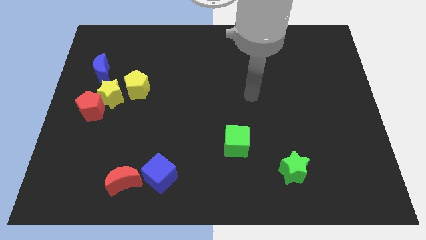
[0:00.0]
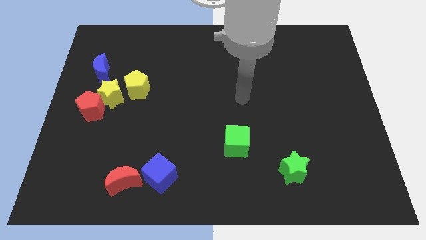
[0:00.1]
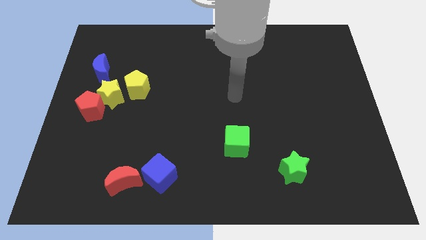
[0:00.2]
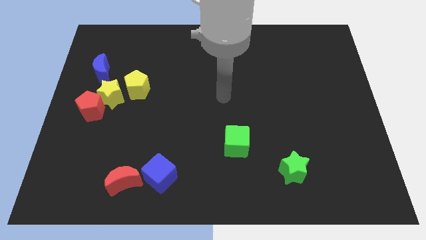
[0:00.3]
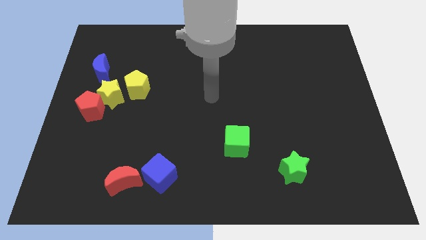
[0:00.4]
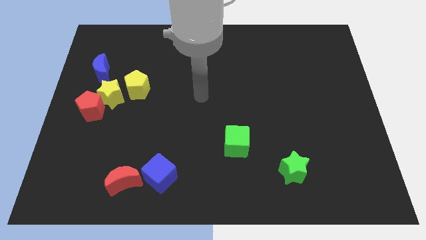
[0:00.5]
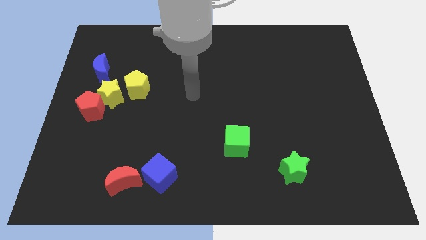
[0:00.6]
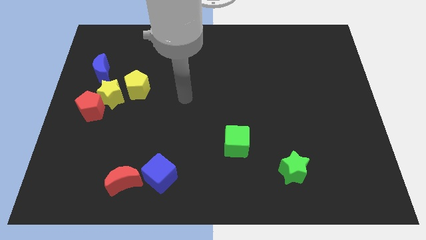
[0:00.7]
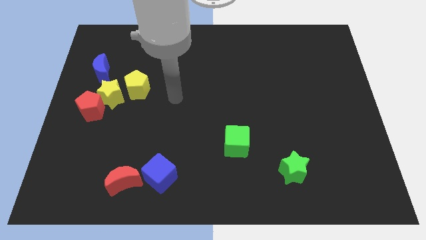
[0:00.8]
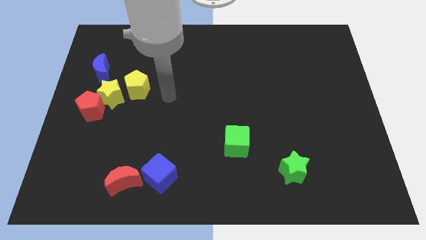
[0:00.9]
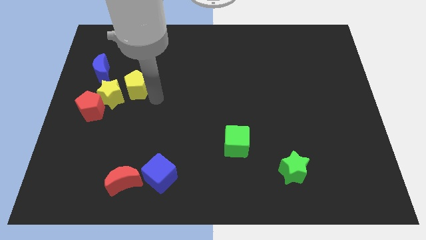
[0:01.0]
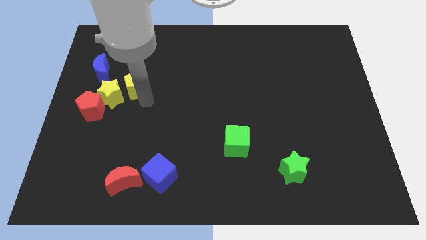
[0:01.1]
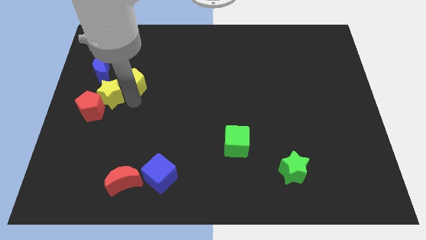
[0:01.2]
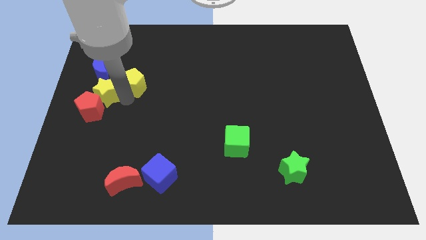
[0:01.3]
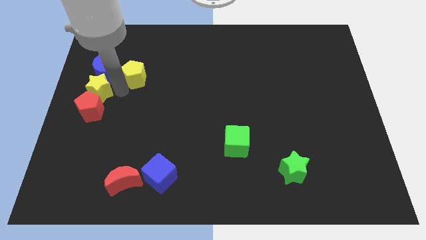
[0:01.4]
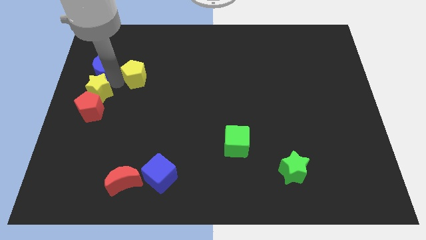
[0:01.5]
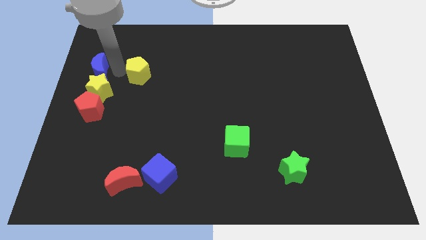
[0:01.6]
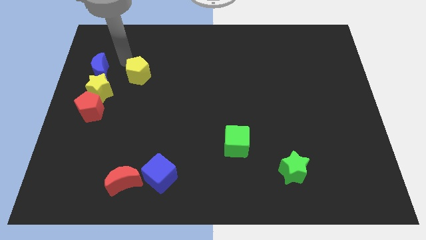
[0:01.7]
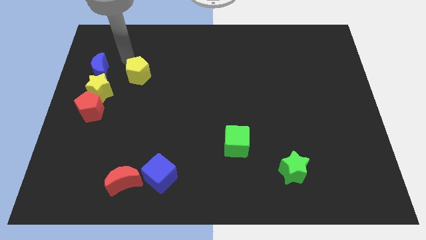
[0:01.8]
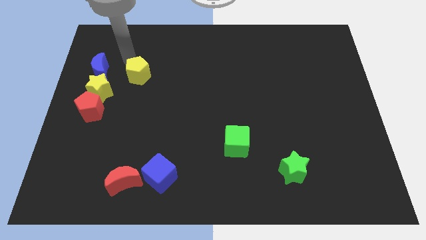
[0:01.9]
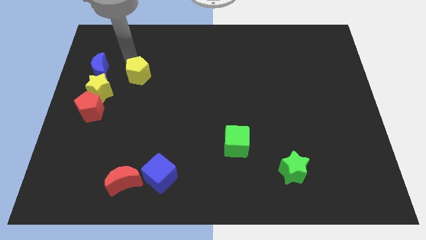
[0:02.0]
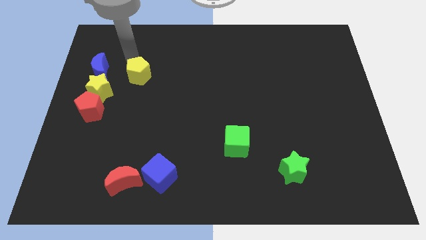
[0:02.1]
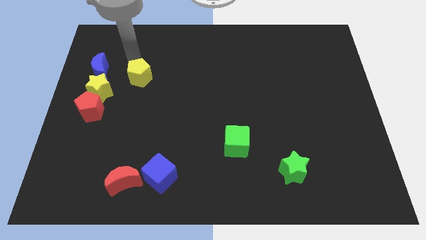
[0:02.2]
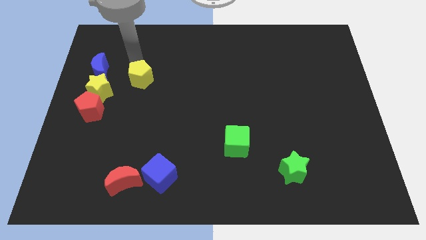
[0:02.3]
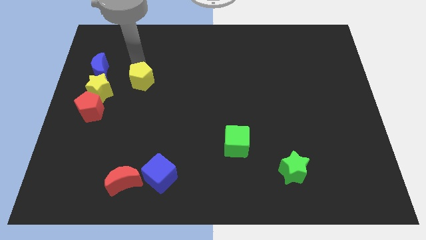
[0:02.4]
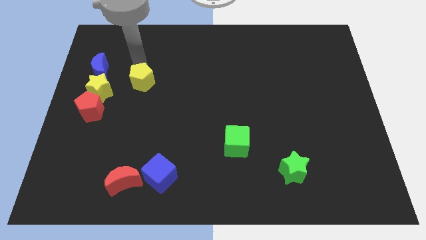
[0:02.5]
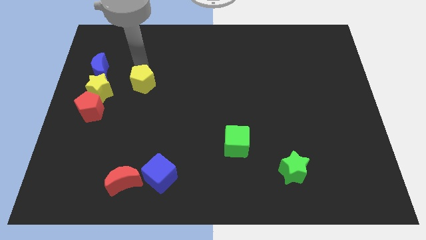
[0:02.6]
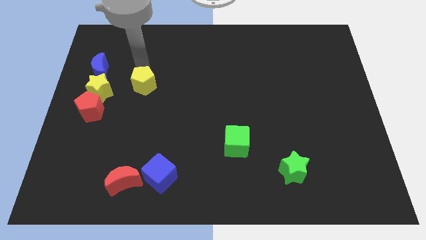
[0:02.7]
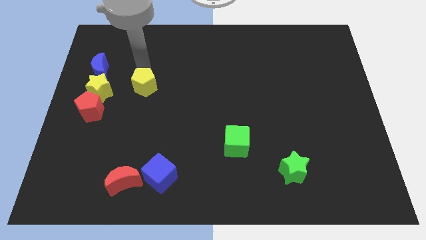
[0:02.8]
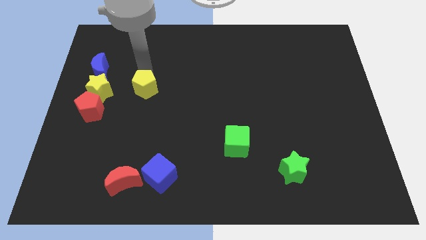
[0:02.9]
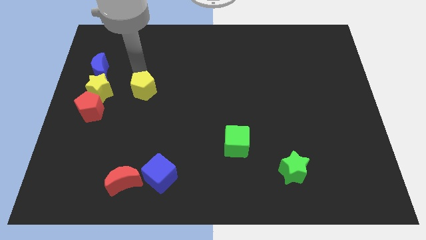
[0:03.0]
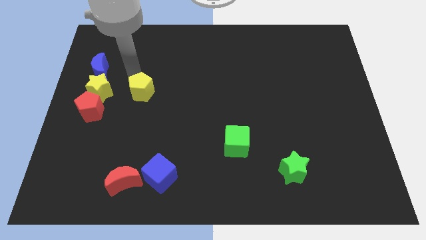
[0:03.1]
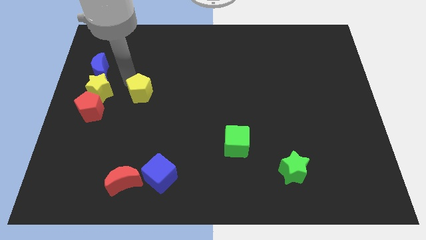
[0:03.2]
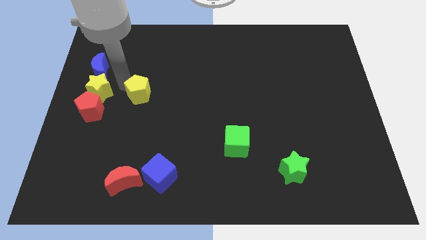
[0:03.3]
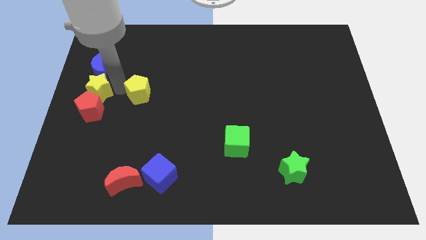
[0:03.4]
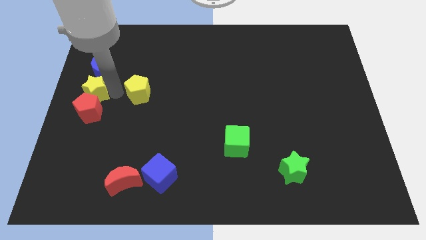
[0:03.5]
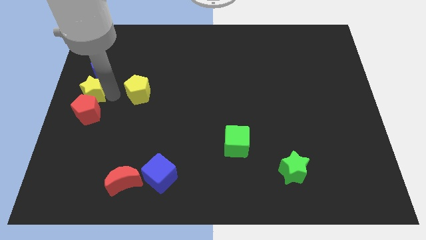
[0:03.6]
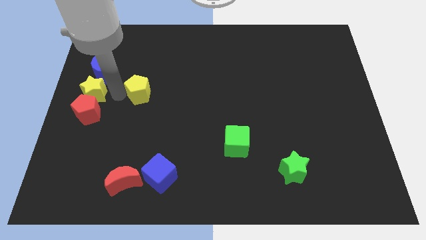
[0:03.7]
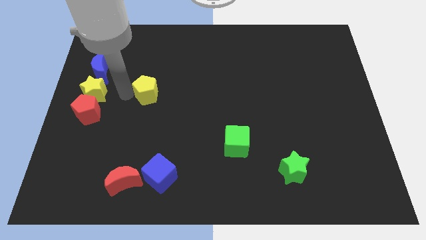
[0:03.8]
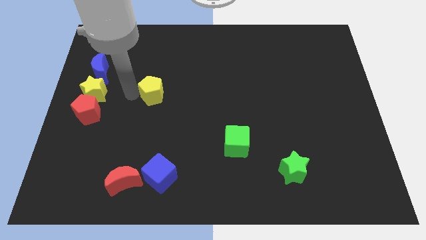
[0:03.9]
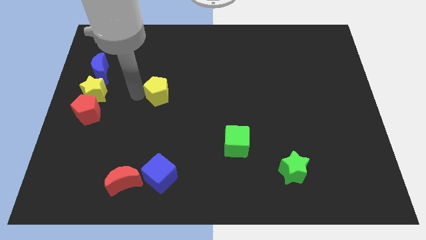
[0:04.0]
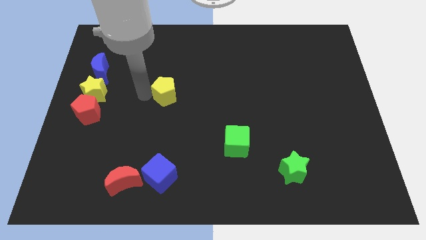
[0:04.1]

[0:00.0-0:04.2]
slide the yellow pentagon a little right

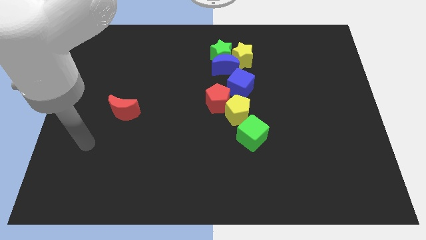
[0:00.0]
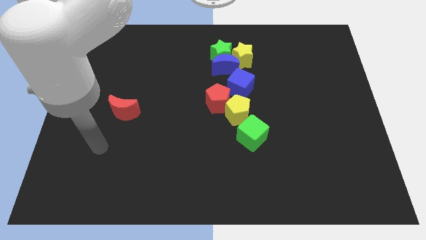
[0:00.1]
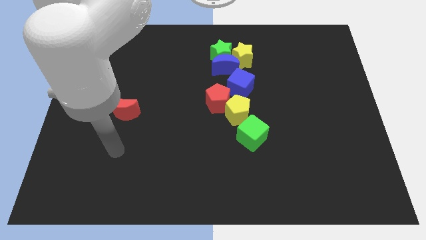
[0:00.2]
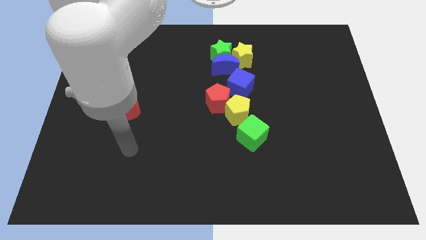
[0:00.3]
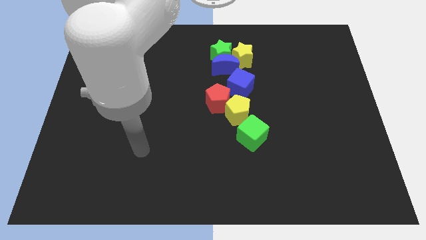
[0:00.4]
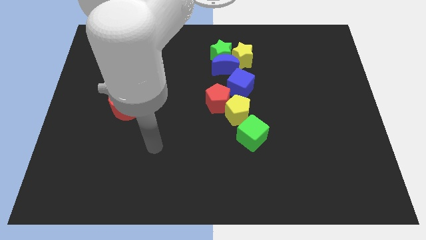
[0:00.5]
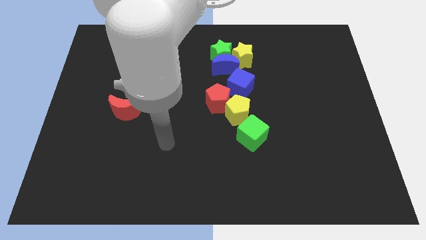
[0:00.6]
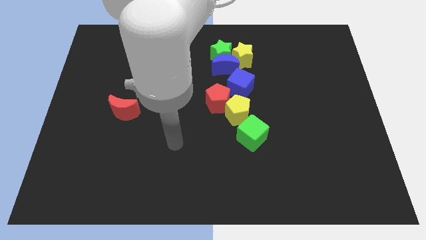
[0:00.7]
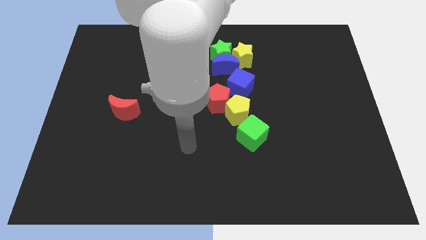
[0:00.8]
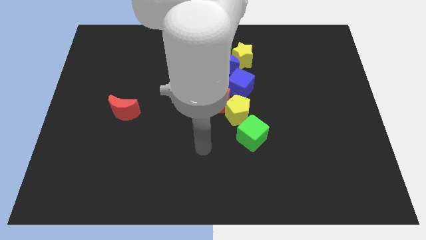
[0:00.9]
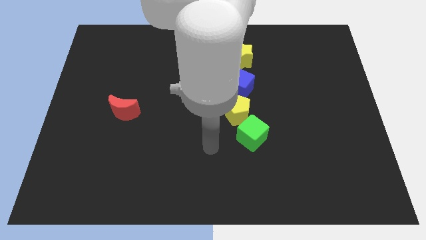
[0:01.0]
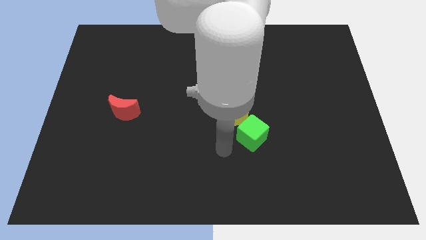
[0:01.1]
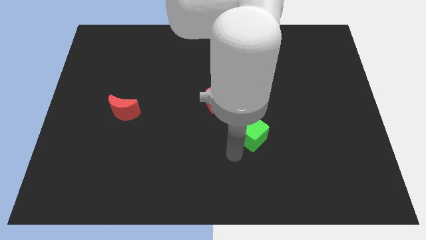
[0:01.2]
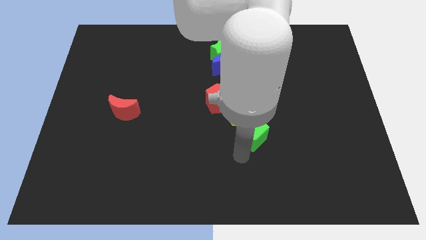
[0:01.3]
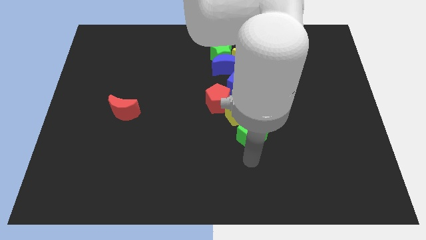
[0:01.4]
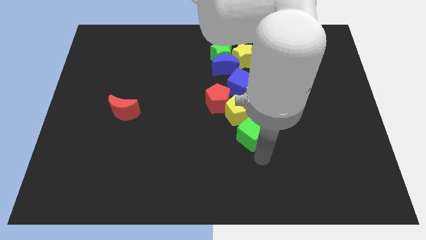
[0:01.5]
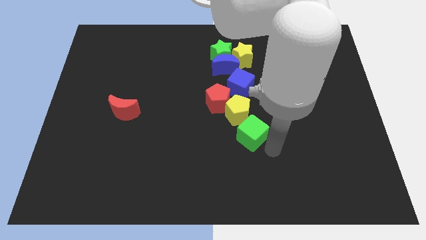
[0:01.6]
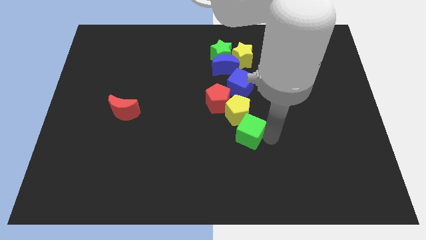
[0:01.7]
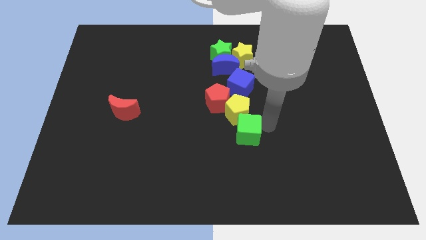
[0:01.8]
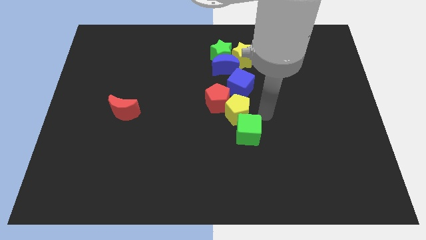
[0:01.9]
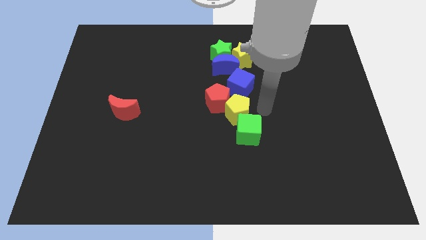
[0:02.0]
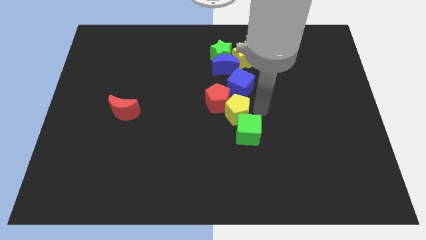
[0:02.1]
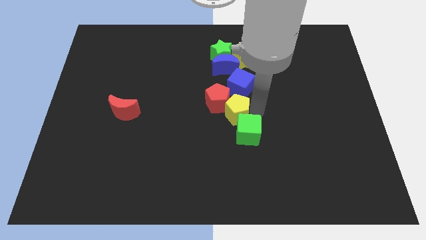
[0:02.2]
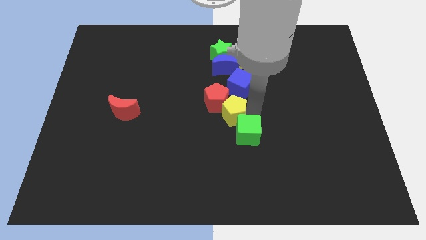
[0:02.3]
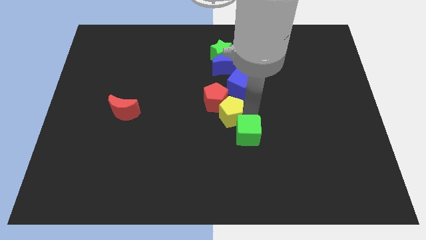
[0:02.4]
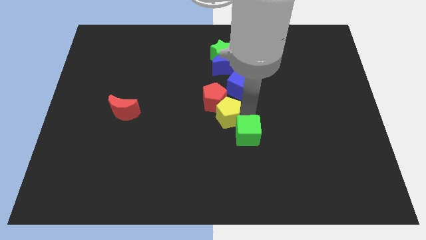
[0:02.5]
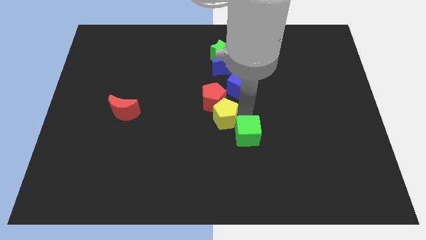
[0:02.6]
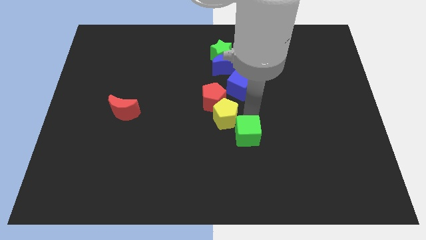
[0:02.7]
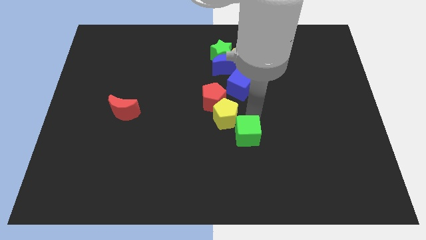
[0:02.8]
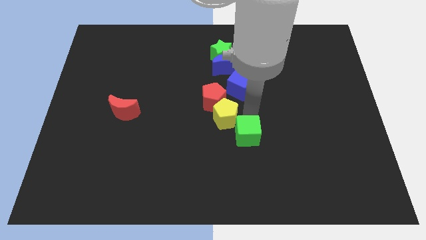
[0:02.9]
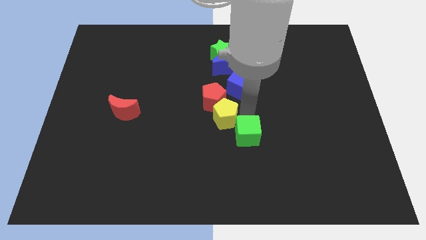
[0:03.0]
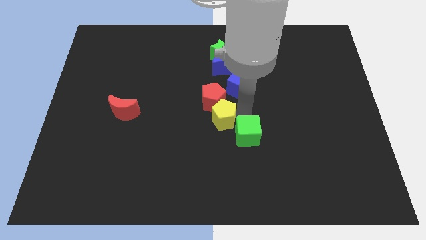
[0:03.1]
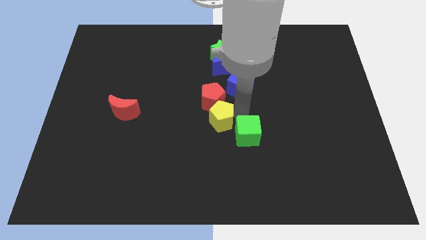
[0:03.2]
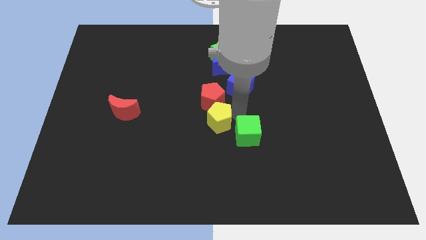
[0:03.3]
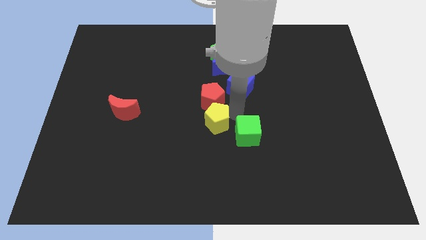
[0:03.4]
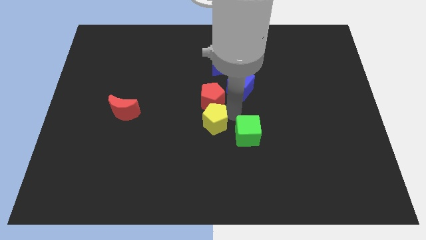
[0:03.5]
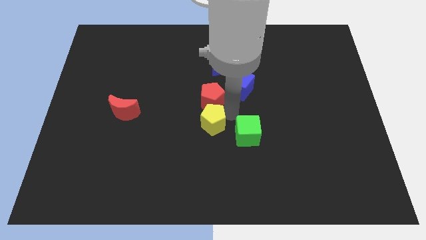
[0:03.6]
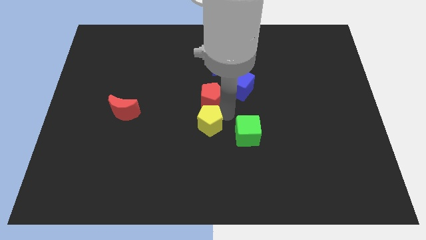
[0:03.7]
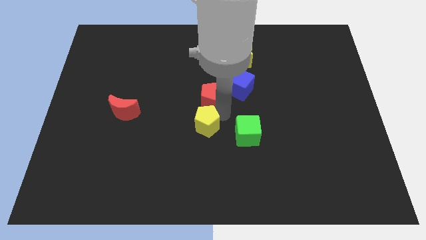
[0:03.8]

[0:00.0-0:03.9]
slightly push the yellow pentagon to the left
